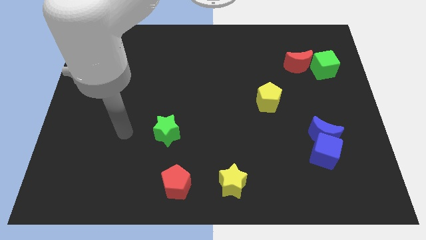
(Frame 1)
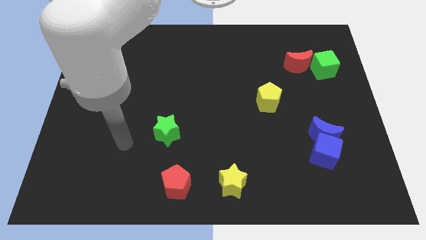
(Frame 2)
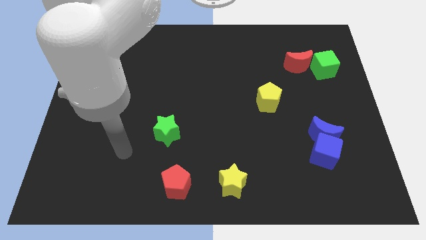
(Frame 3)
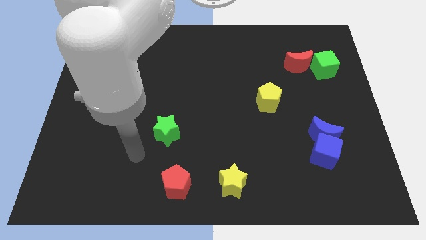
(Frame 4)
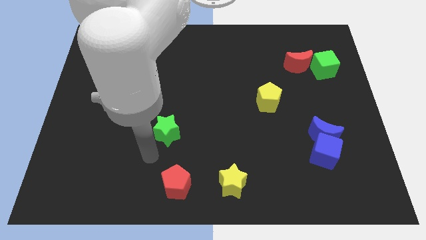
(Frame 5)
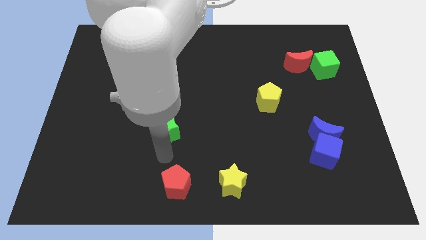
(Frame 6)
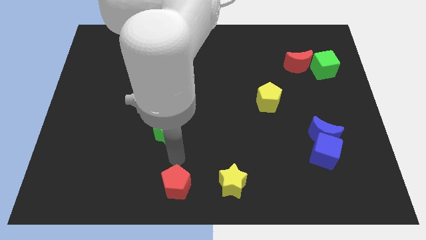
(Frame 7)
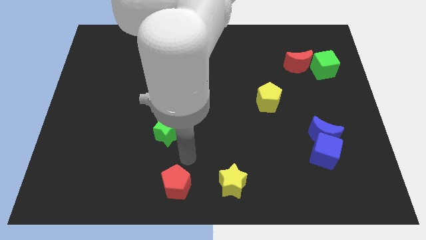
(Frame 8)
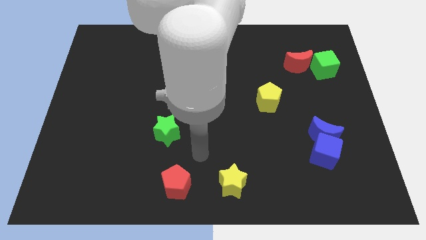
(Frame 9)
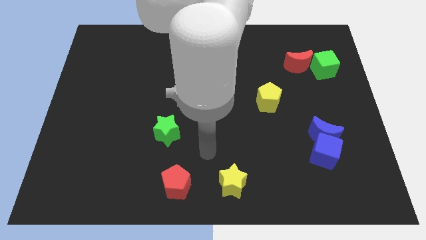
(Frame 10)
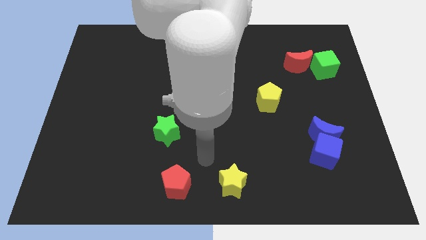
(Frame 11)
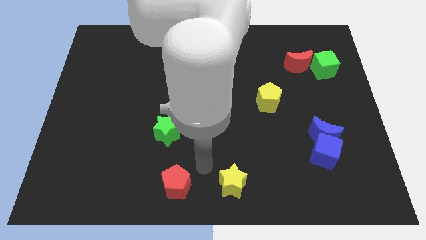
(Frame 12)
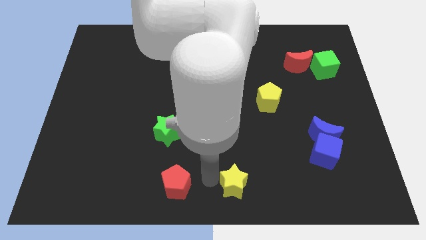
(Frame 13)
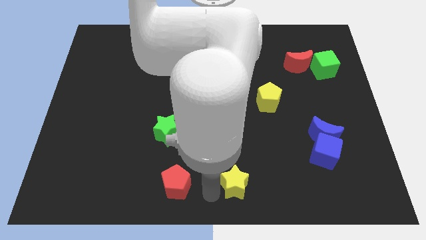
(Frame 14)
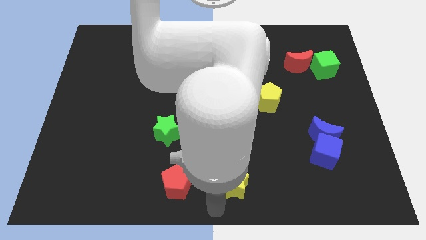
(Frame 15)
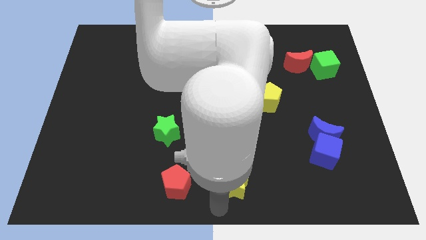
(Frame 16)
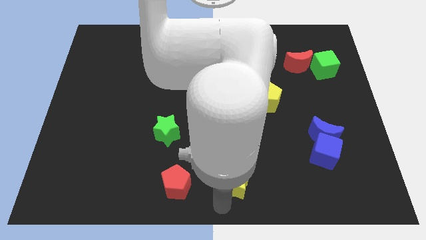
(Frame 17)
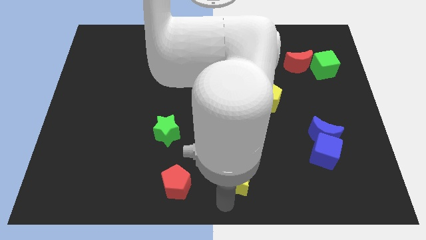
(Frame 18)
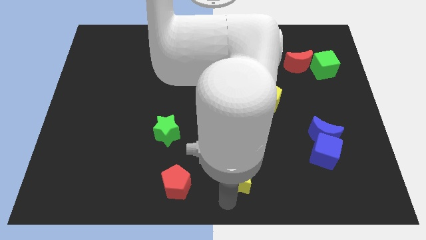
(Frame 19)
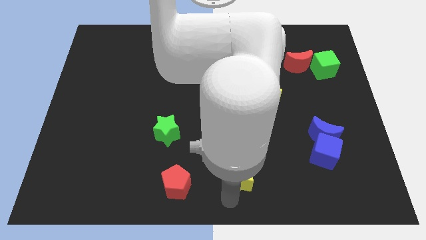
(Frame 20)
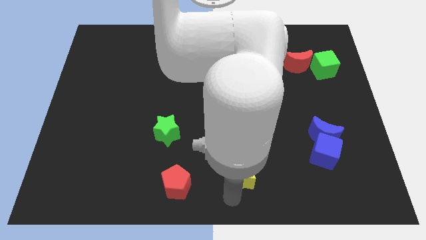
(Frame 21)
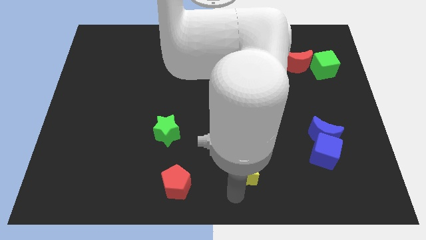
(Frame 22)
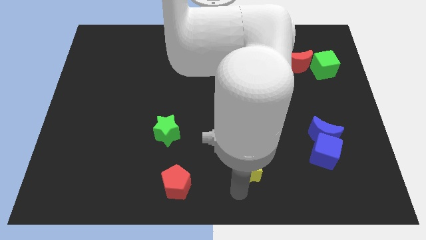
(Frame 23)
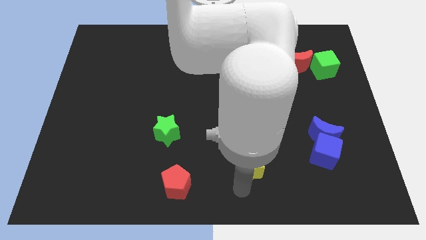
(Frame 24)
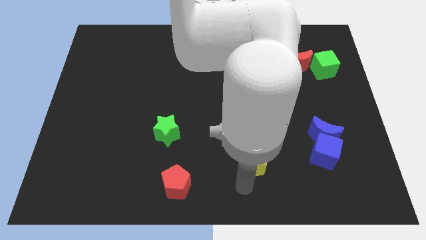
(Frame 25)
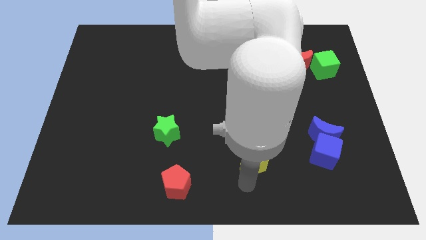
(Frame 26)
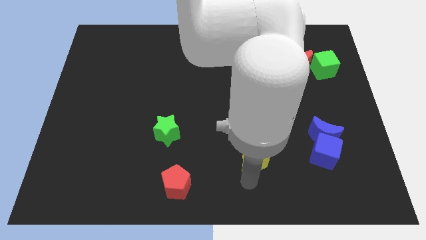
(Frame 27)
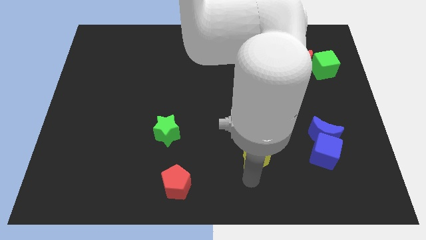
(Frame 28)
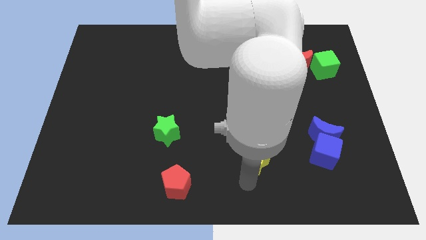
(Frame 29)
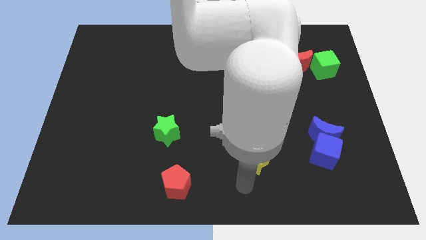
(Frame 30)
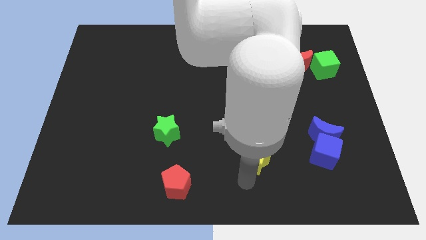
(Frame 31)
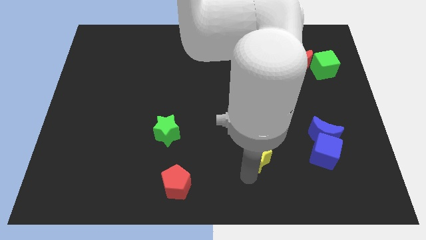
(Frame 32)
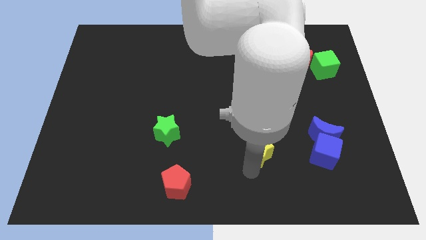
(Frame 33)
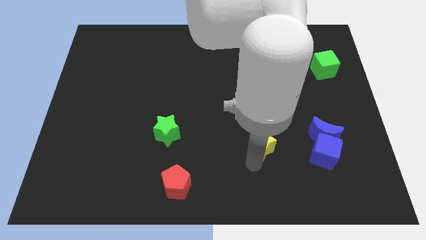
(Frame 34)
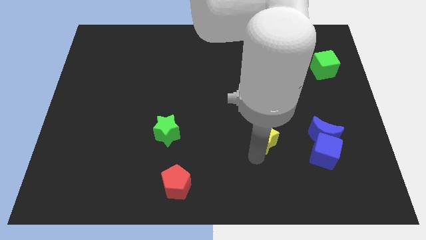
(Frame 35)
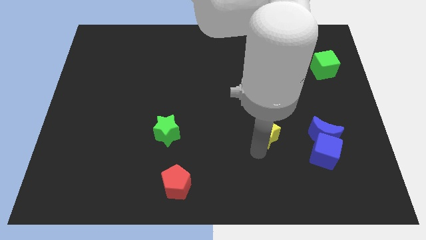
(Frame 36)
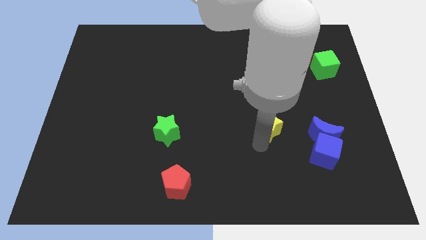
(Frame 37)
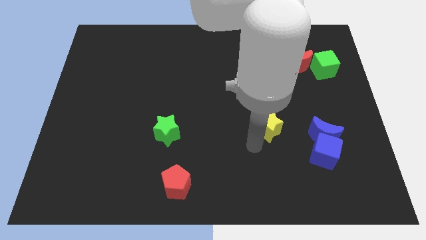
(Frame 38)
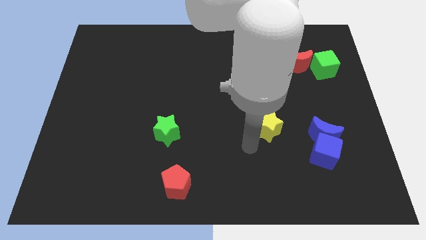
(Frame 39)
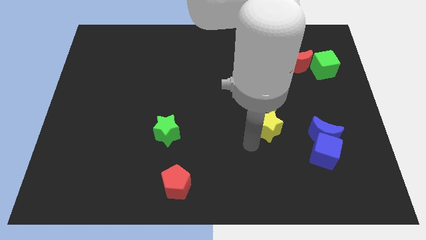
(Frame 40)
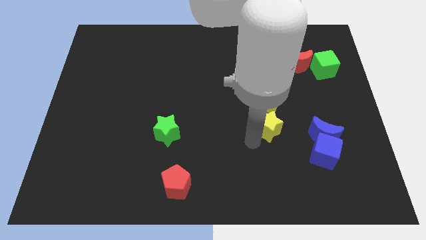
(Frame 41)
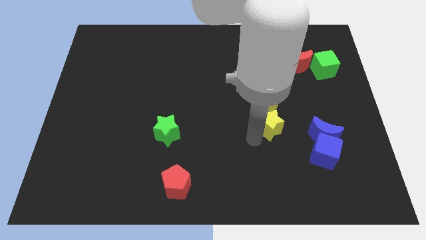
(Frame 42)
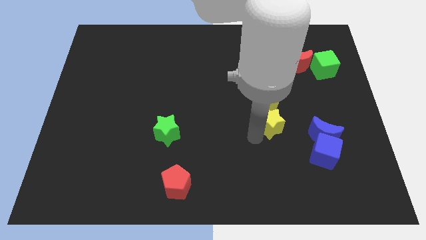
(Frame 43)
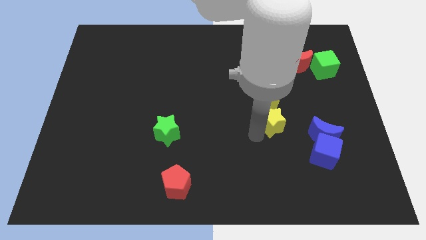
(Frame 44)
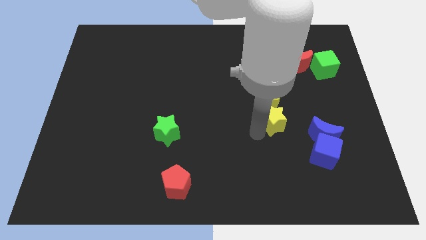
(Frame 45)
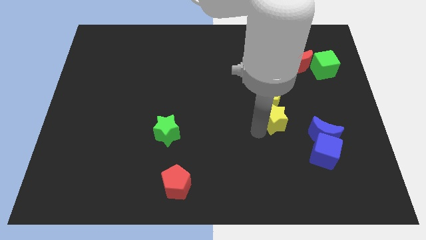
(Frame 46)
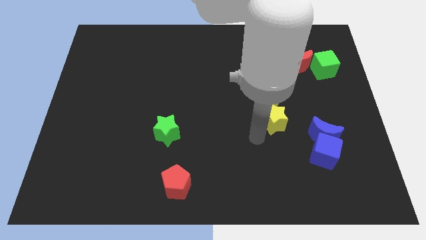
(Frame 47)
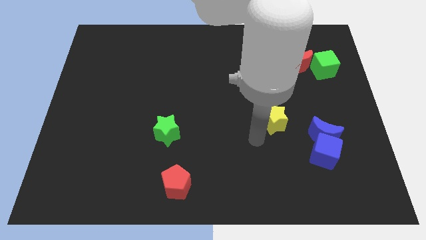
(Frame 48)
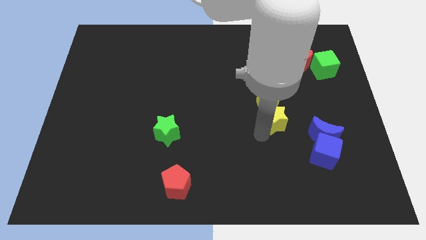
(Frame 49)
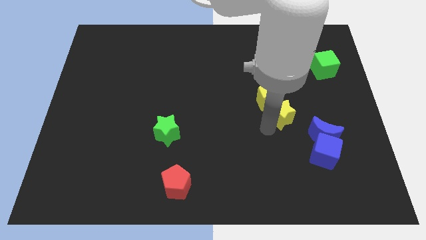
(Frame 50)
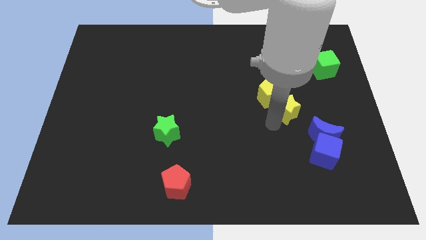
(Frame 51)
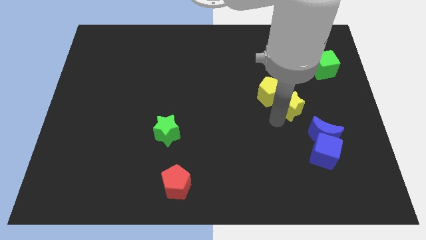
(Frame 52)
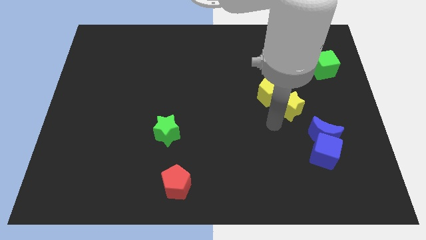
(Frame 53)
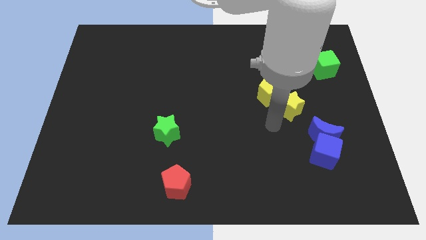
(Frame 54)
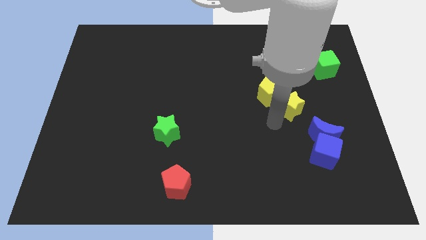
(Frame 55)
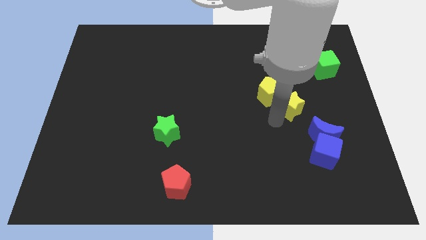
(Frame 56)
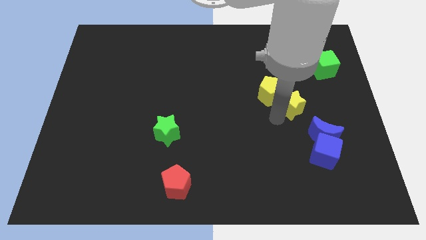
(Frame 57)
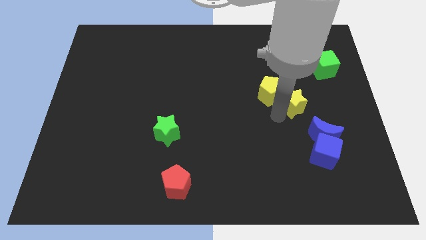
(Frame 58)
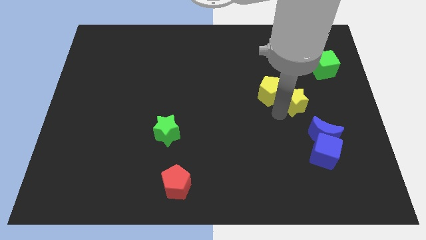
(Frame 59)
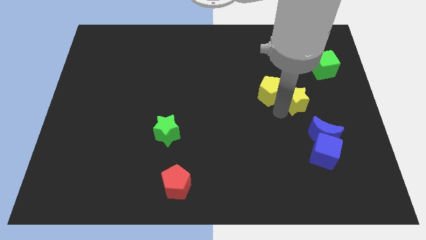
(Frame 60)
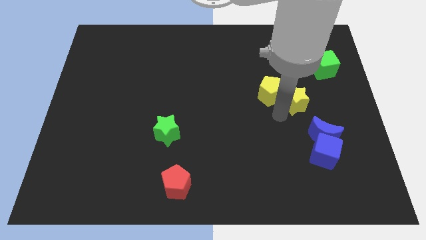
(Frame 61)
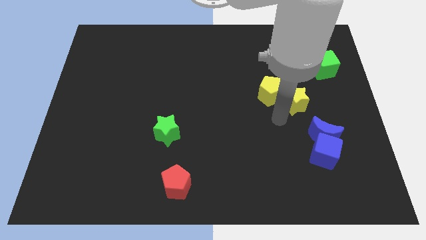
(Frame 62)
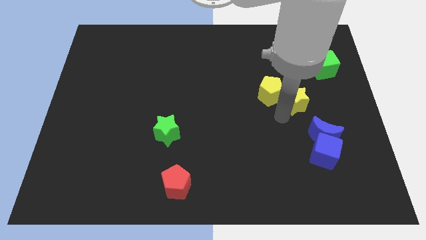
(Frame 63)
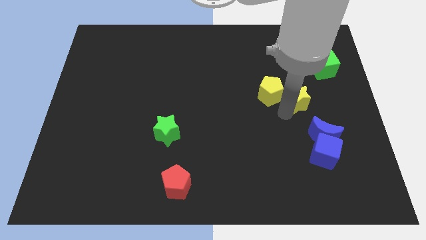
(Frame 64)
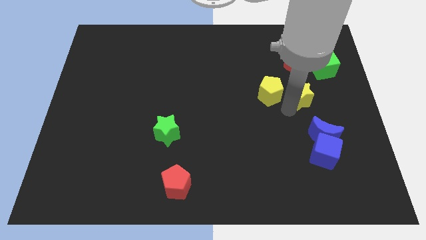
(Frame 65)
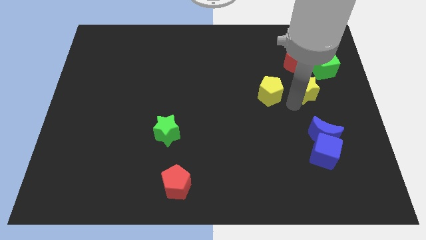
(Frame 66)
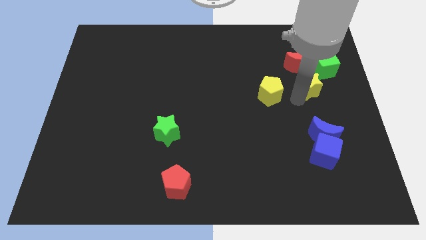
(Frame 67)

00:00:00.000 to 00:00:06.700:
put the yellow star diagonally down and to the right of the red moon
